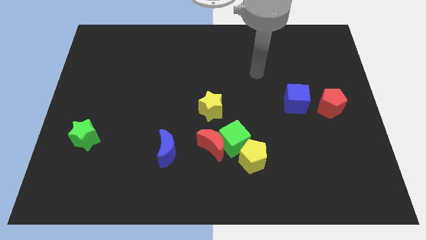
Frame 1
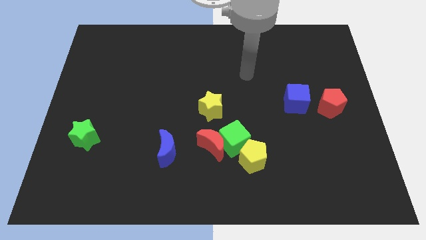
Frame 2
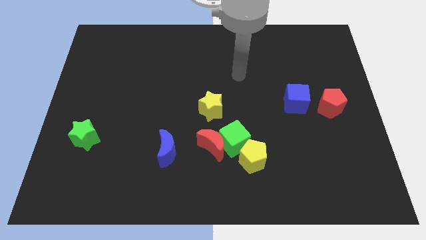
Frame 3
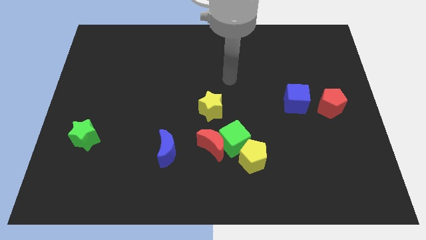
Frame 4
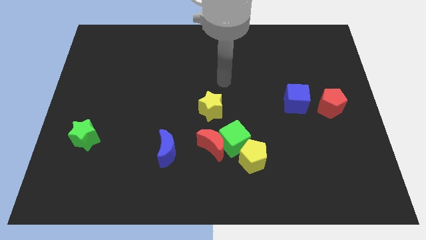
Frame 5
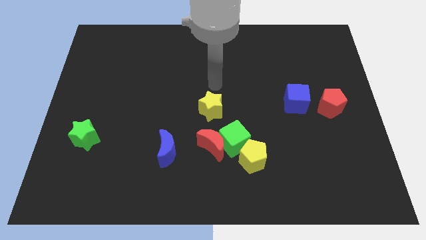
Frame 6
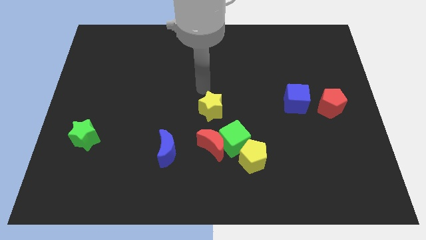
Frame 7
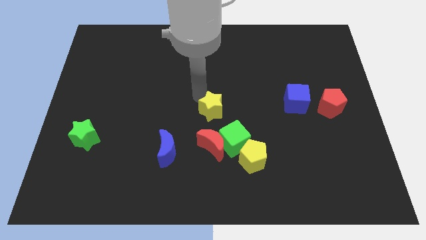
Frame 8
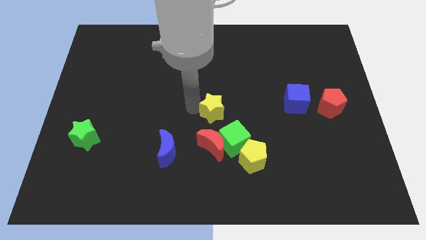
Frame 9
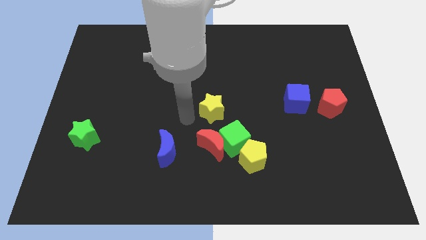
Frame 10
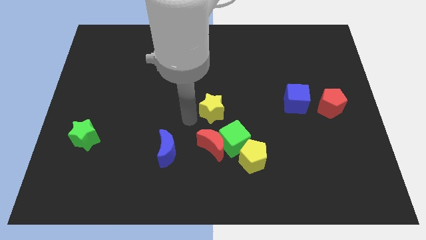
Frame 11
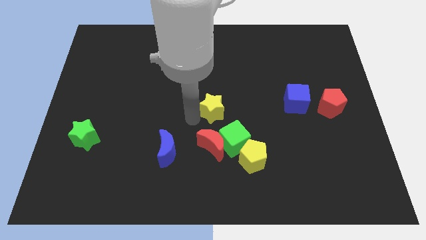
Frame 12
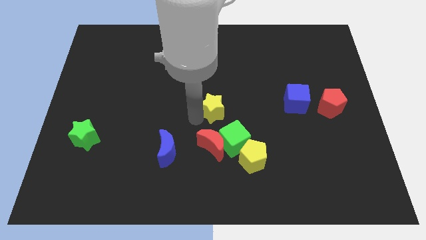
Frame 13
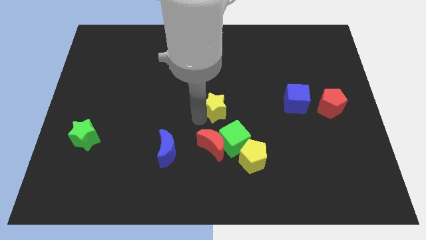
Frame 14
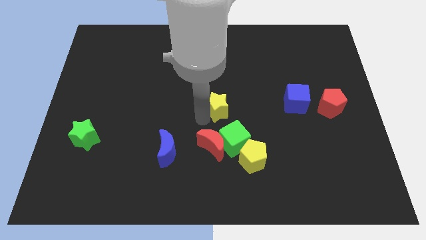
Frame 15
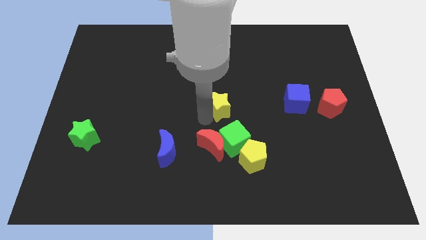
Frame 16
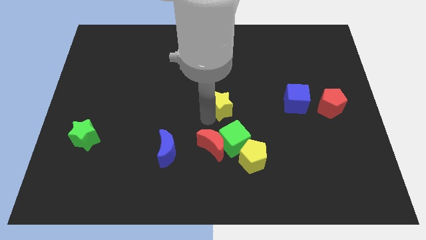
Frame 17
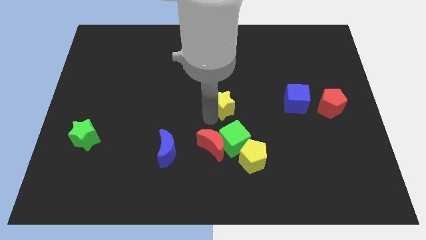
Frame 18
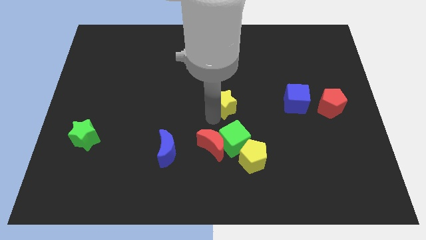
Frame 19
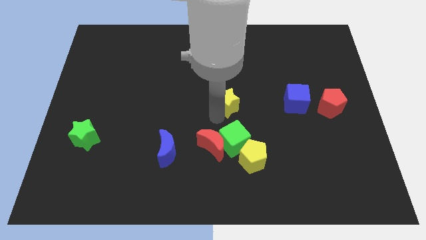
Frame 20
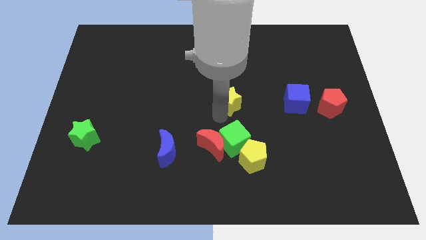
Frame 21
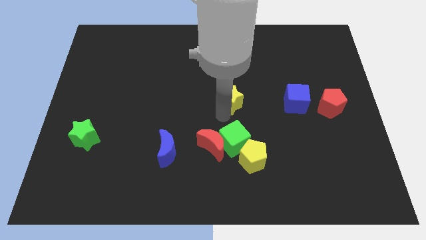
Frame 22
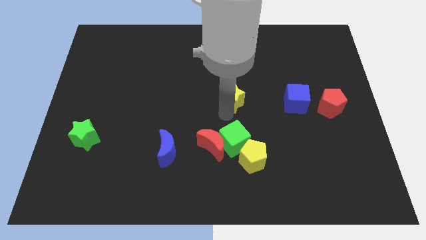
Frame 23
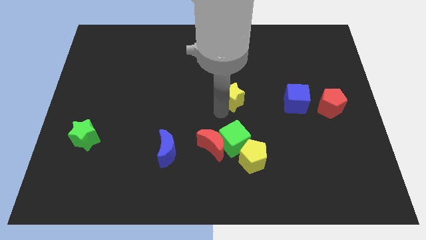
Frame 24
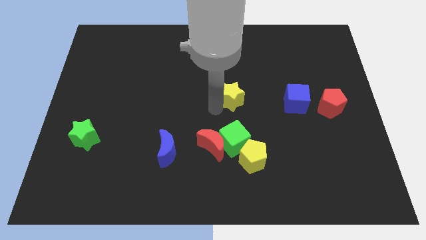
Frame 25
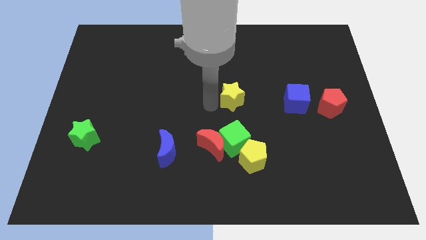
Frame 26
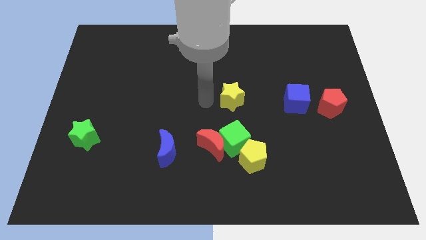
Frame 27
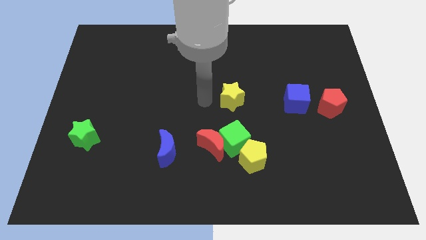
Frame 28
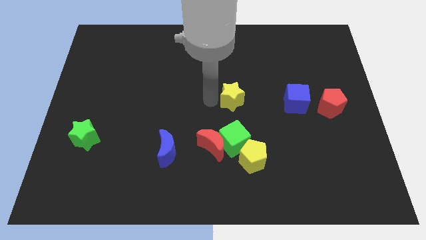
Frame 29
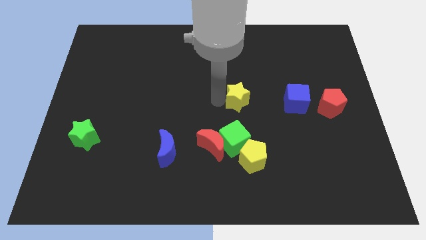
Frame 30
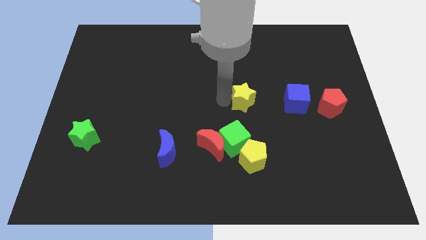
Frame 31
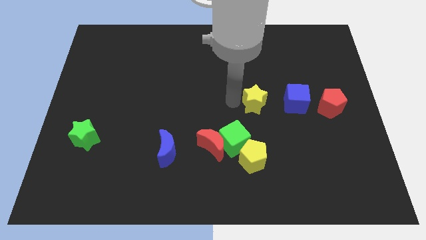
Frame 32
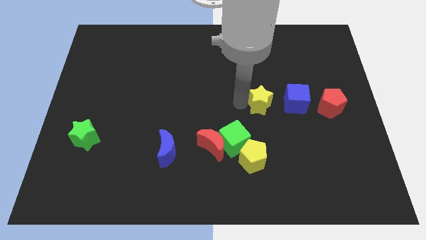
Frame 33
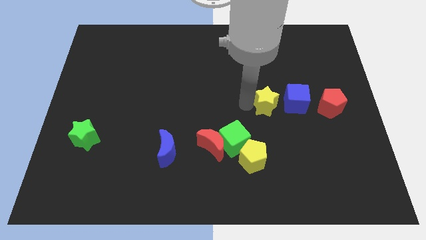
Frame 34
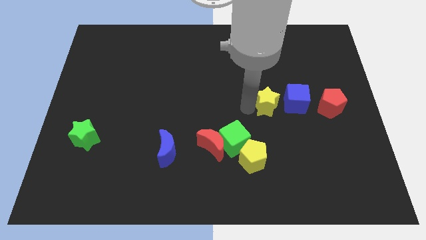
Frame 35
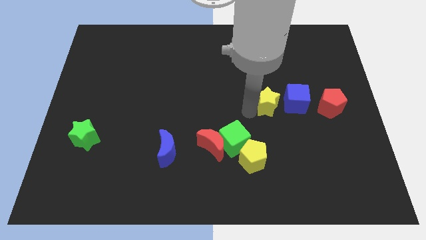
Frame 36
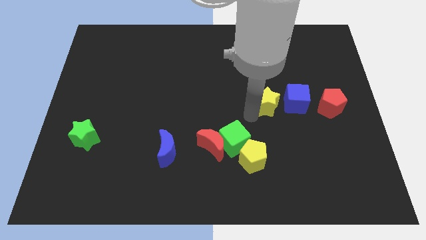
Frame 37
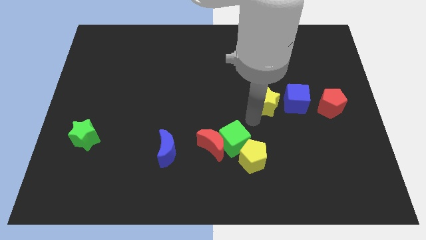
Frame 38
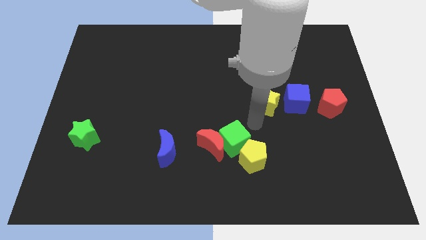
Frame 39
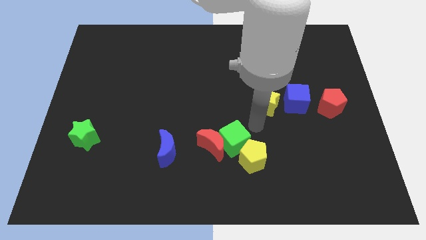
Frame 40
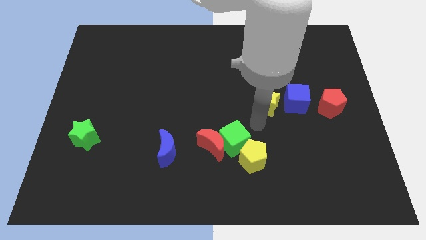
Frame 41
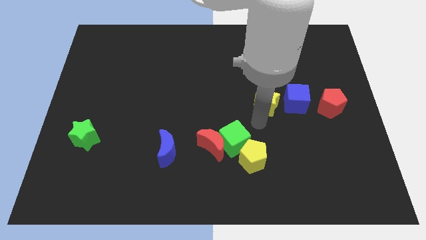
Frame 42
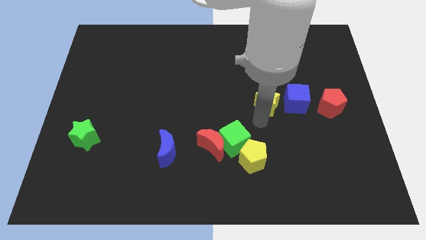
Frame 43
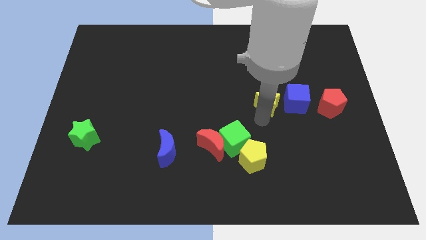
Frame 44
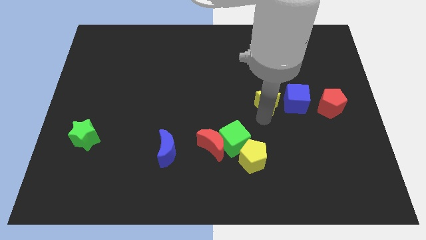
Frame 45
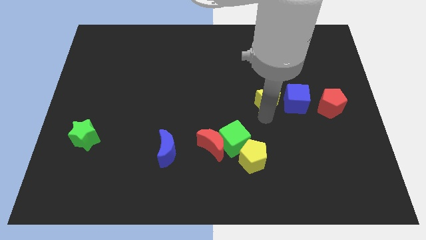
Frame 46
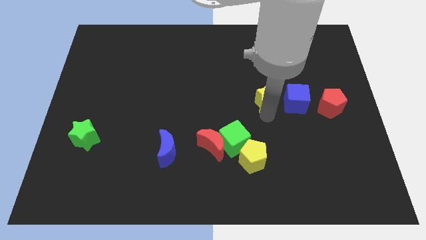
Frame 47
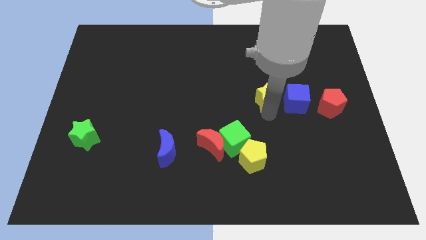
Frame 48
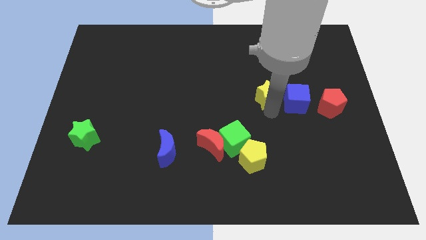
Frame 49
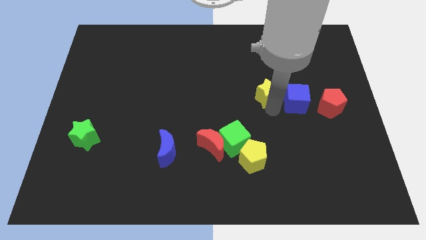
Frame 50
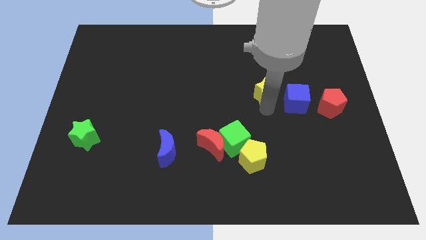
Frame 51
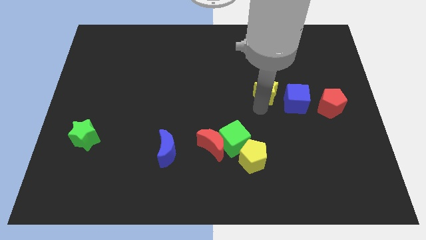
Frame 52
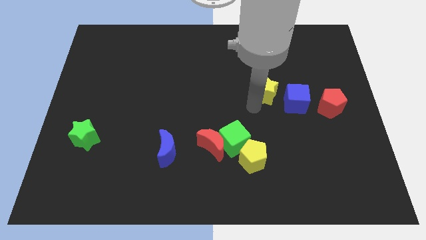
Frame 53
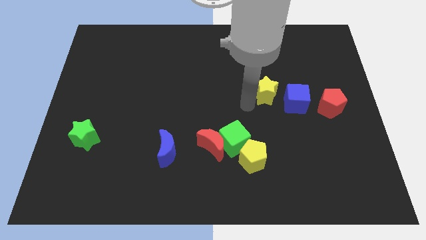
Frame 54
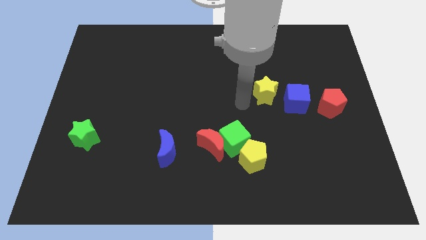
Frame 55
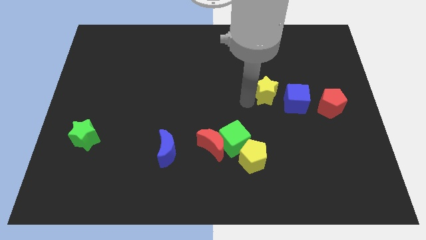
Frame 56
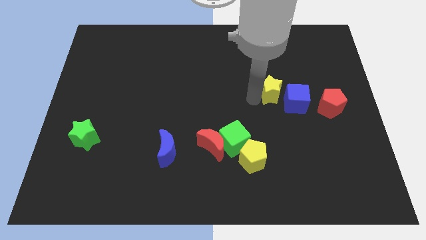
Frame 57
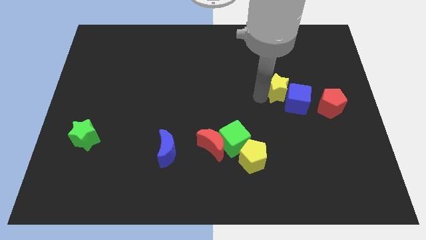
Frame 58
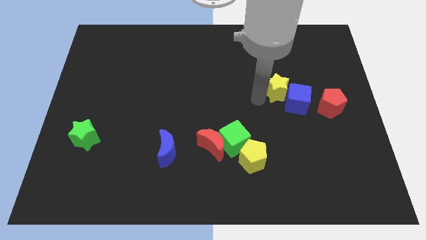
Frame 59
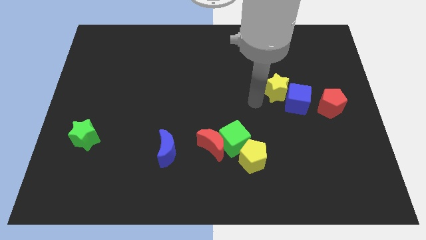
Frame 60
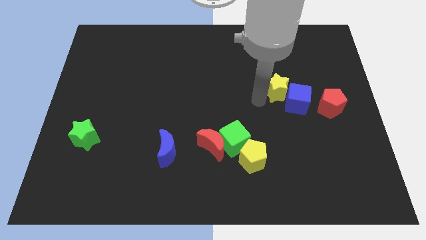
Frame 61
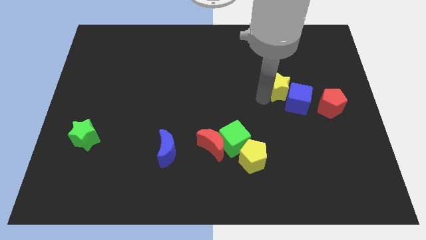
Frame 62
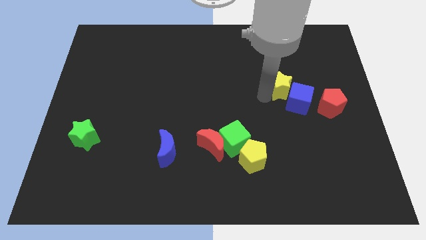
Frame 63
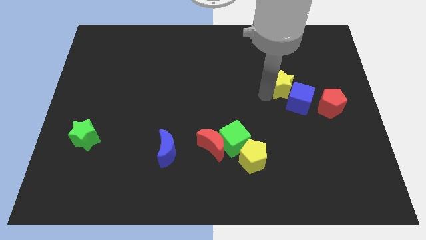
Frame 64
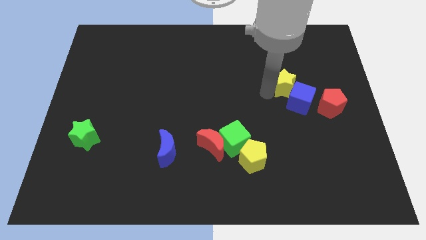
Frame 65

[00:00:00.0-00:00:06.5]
put the yellow star to the top left side of the red pentagon
